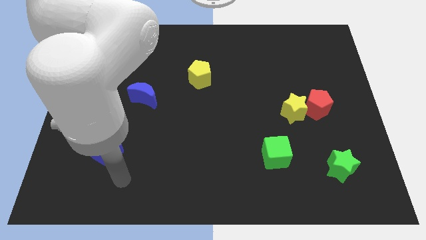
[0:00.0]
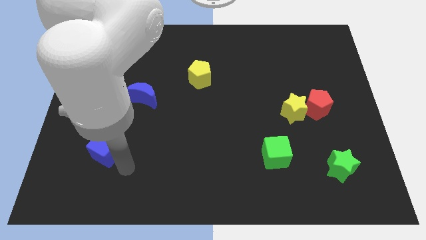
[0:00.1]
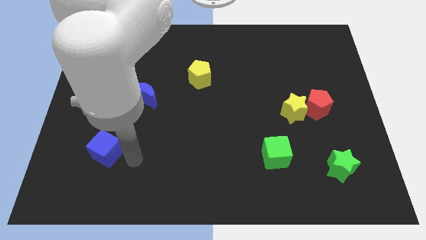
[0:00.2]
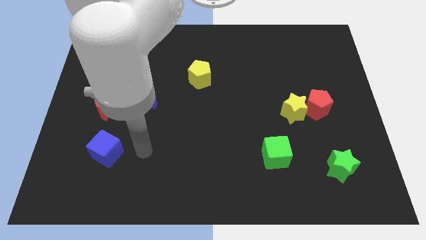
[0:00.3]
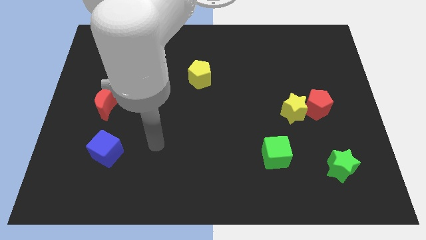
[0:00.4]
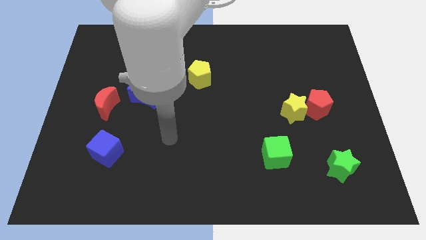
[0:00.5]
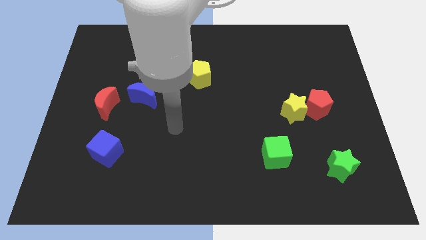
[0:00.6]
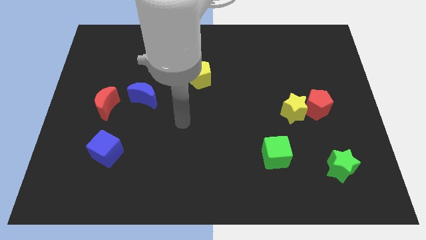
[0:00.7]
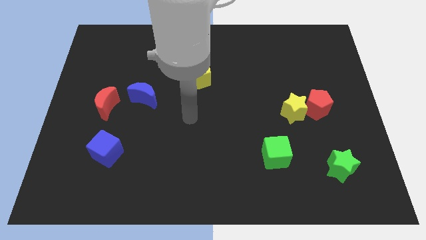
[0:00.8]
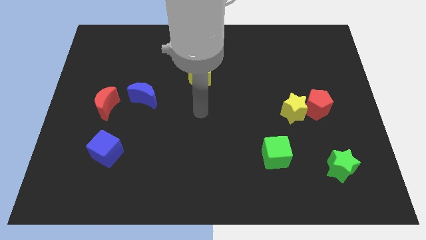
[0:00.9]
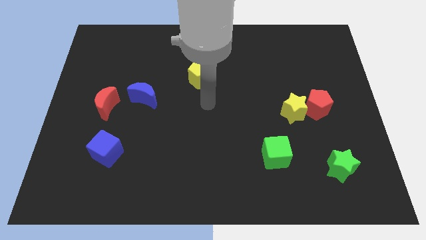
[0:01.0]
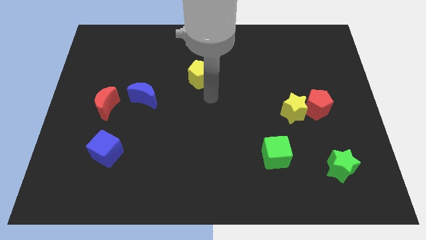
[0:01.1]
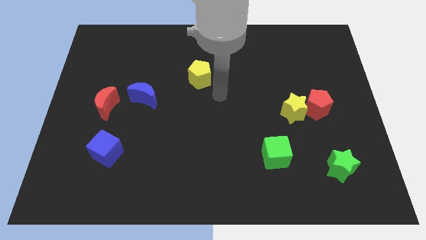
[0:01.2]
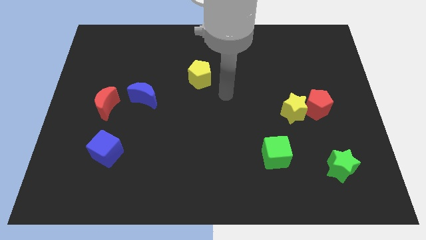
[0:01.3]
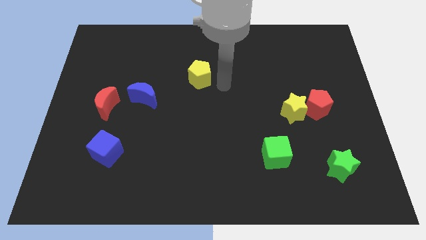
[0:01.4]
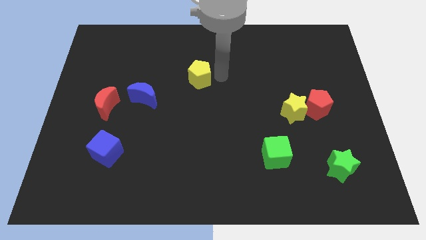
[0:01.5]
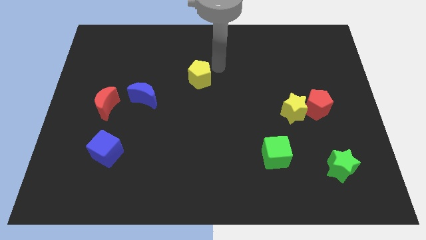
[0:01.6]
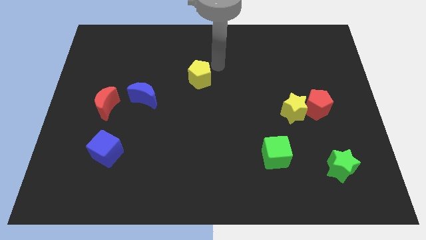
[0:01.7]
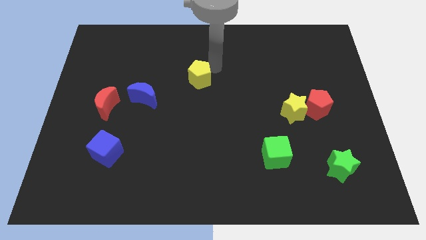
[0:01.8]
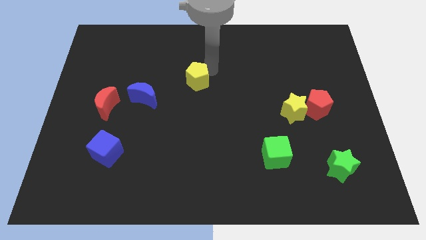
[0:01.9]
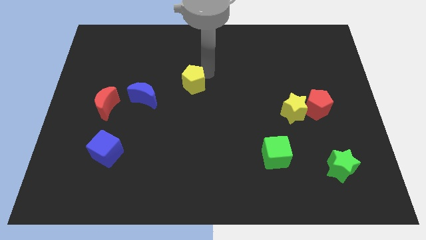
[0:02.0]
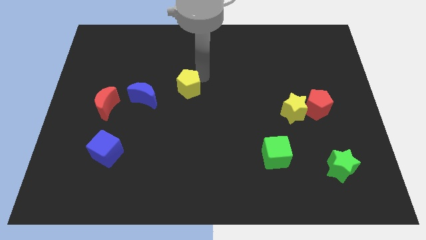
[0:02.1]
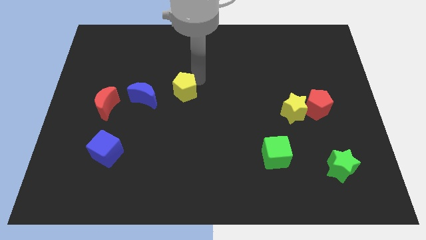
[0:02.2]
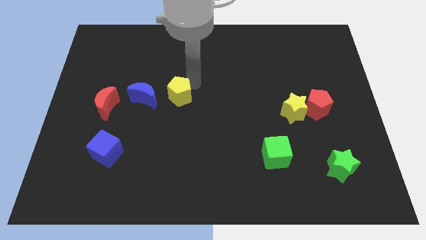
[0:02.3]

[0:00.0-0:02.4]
move the yellow pentagon a little down and to the left

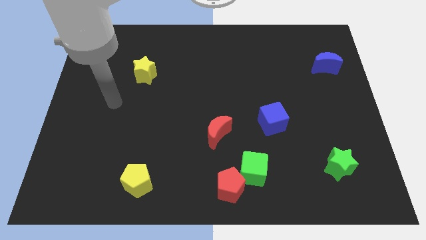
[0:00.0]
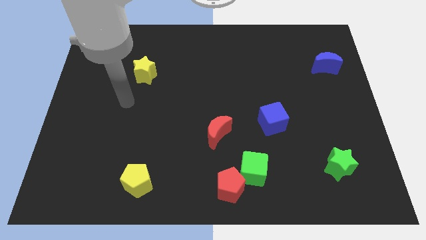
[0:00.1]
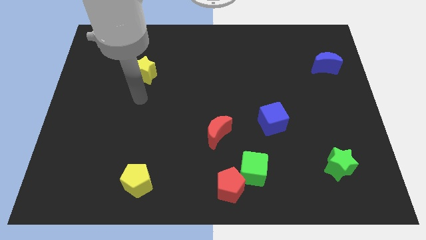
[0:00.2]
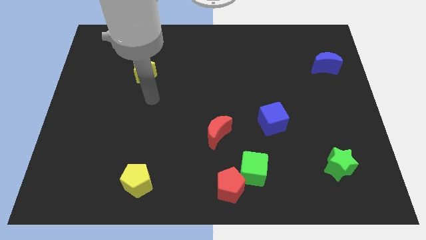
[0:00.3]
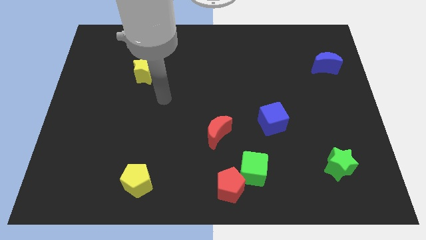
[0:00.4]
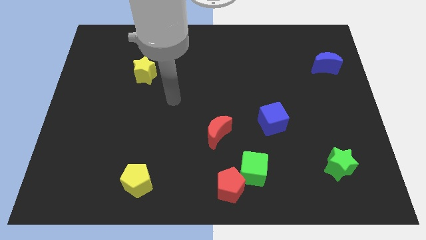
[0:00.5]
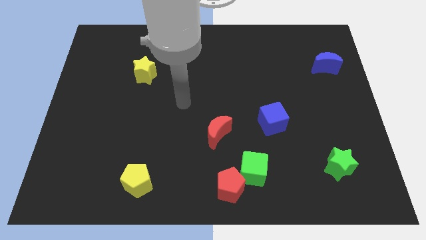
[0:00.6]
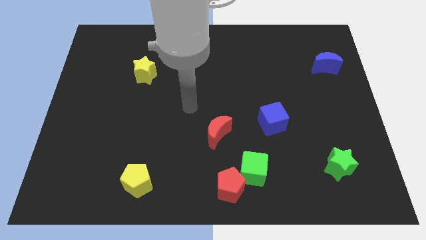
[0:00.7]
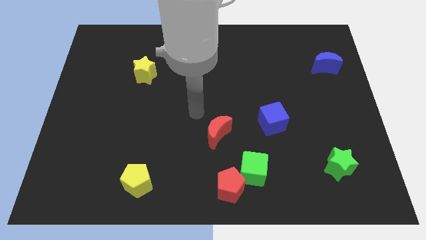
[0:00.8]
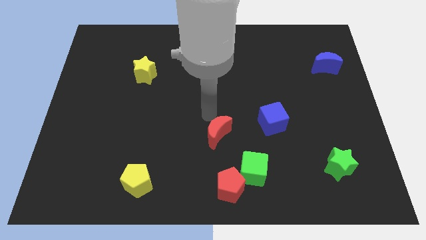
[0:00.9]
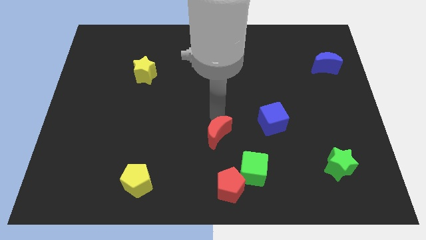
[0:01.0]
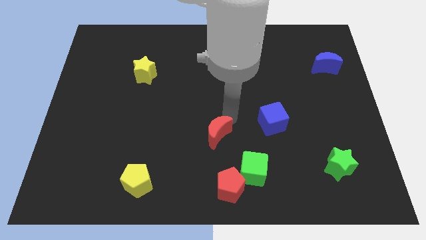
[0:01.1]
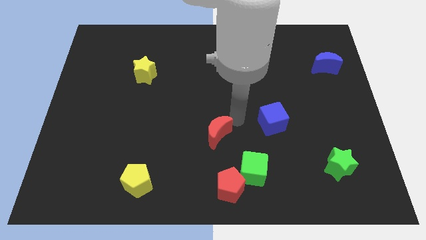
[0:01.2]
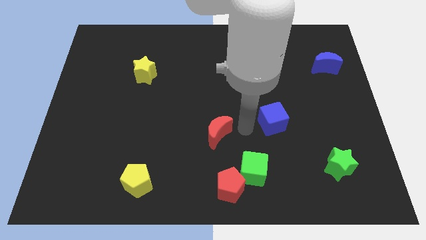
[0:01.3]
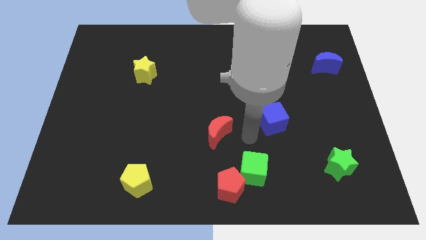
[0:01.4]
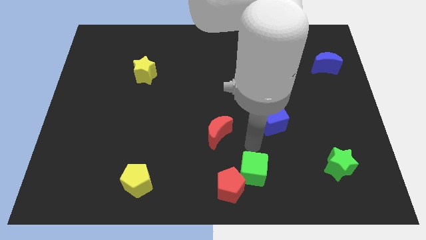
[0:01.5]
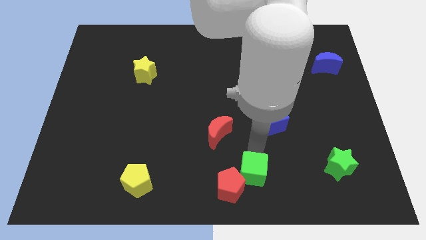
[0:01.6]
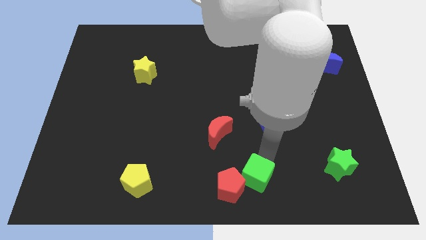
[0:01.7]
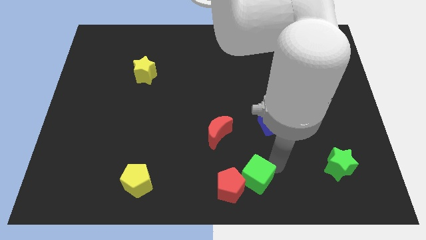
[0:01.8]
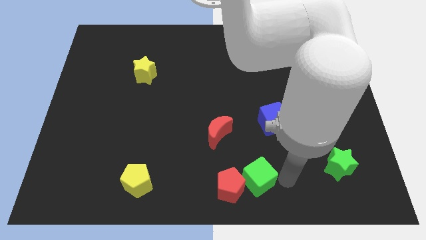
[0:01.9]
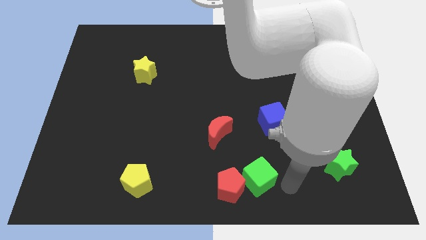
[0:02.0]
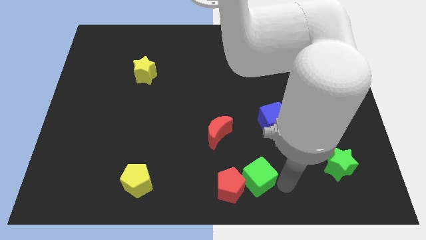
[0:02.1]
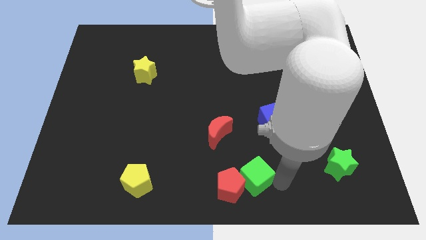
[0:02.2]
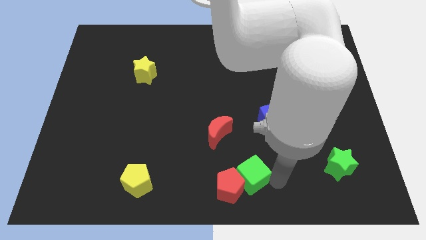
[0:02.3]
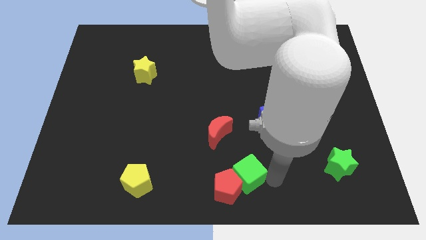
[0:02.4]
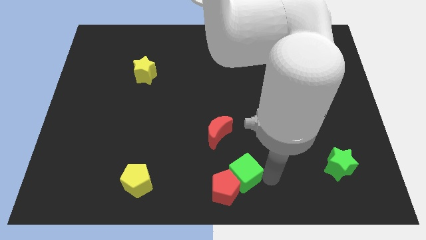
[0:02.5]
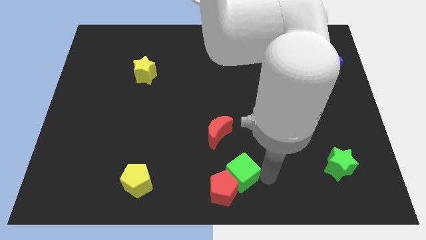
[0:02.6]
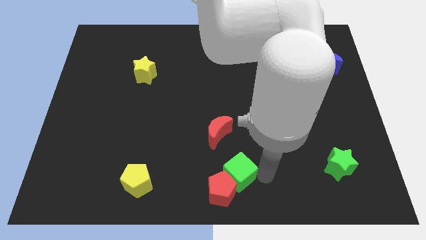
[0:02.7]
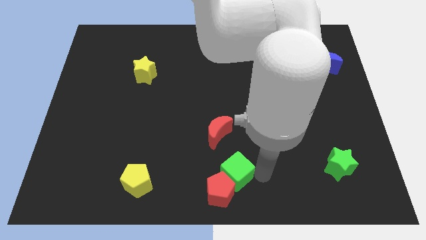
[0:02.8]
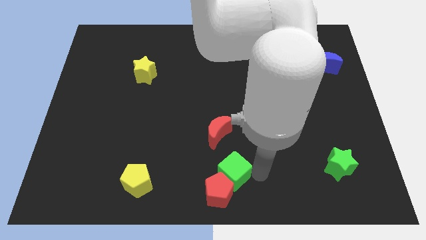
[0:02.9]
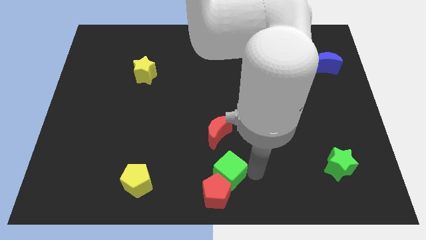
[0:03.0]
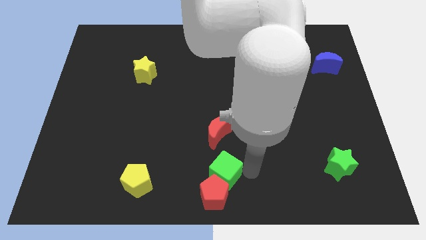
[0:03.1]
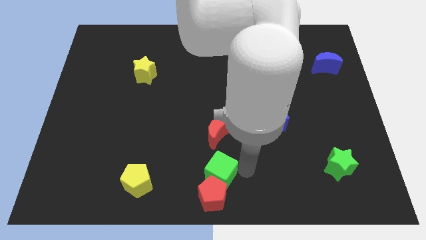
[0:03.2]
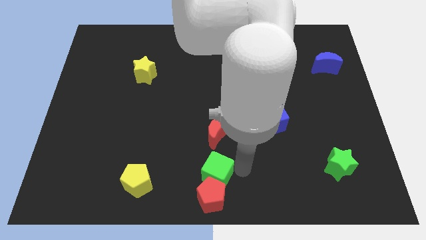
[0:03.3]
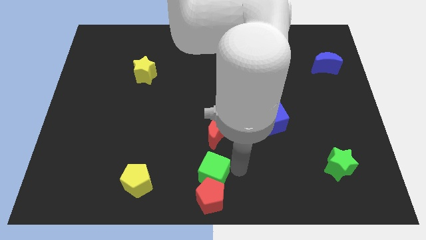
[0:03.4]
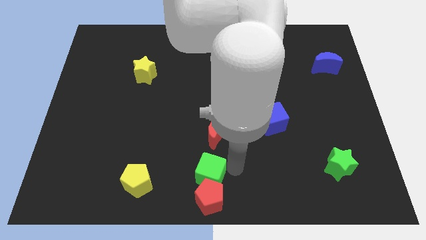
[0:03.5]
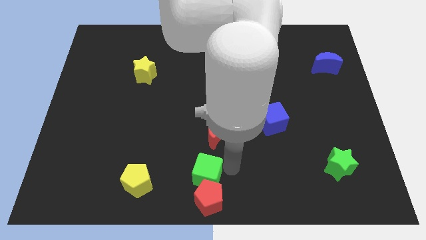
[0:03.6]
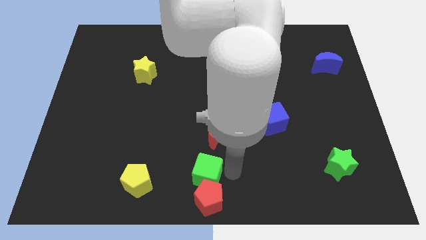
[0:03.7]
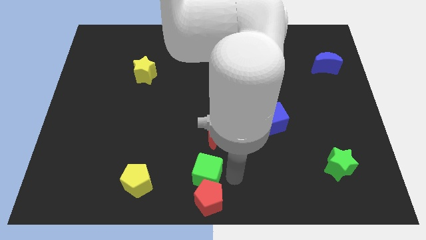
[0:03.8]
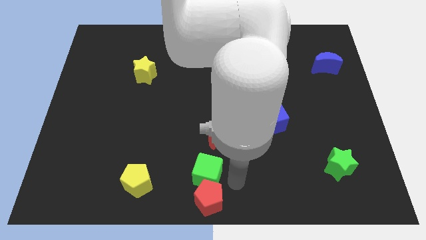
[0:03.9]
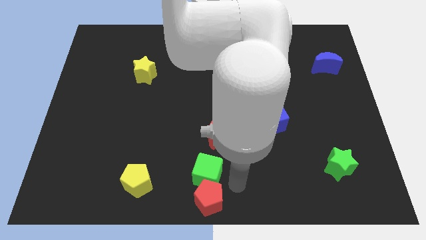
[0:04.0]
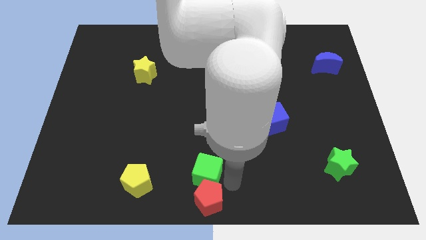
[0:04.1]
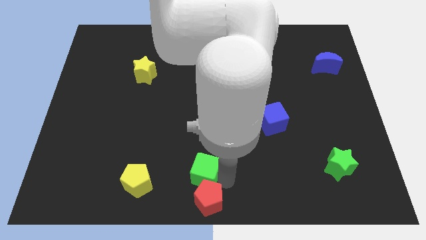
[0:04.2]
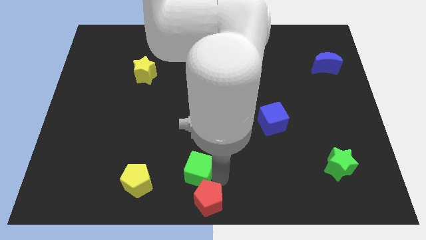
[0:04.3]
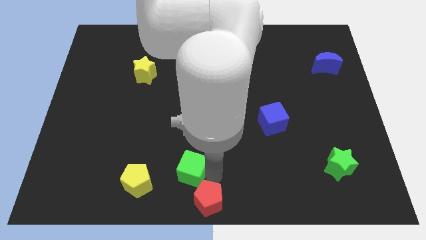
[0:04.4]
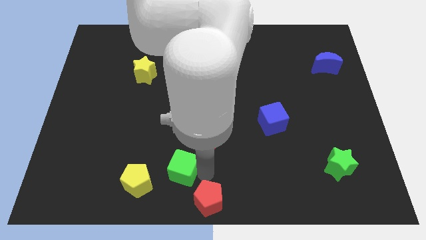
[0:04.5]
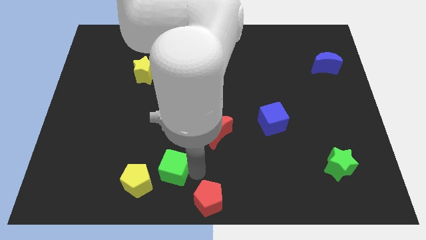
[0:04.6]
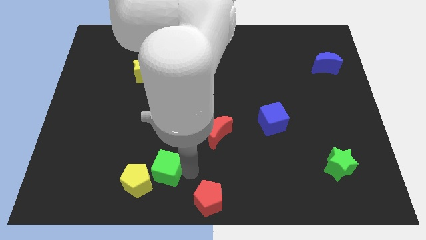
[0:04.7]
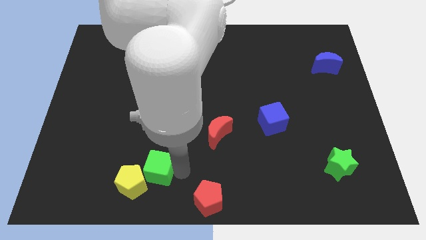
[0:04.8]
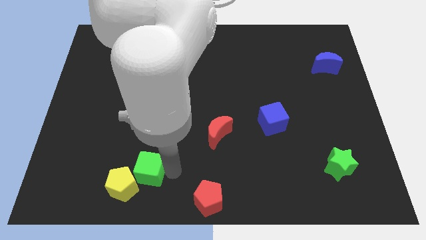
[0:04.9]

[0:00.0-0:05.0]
move the green cube to the left

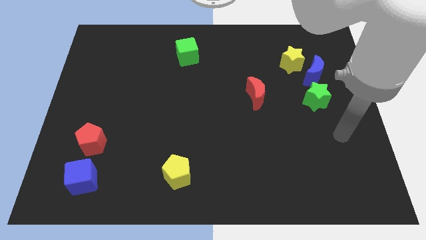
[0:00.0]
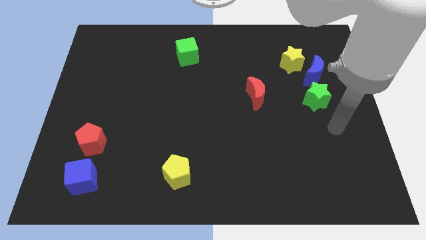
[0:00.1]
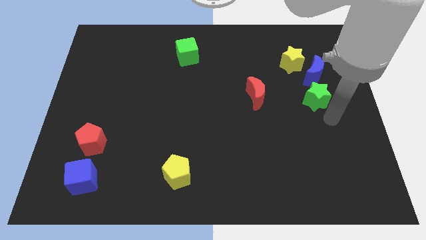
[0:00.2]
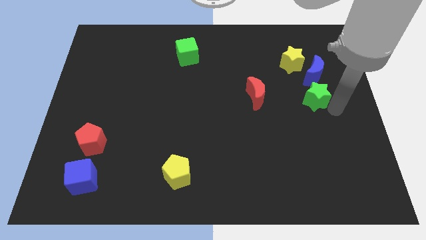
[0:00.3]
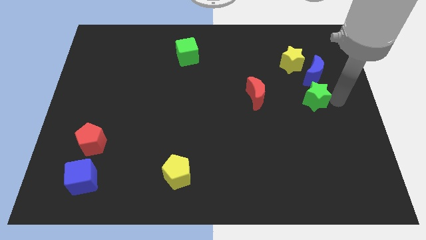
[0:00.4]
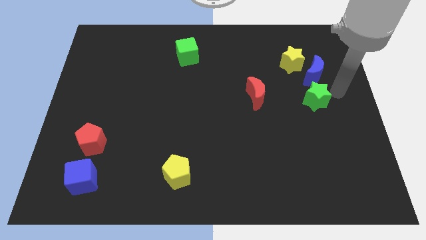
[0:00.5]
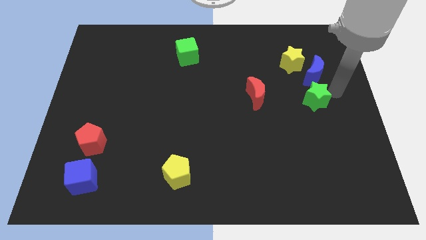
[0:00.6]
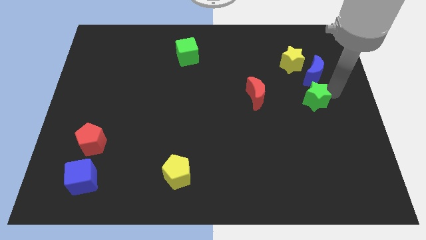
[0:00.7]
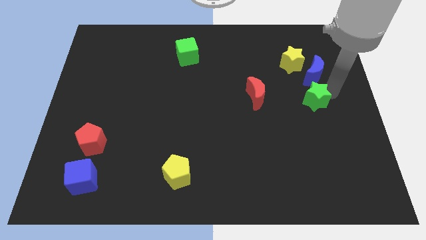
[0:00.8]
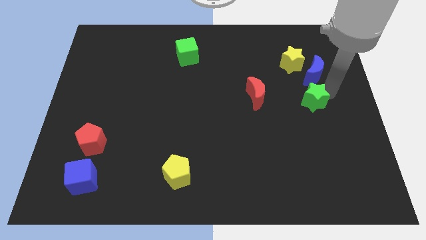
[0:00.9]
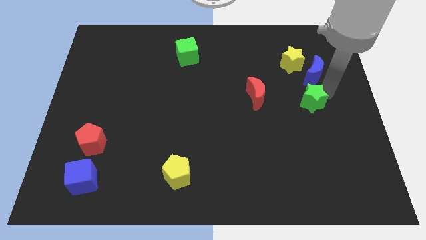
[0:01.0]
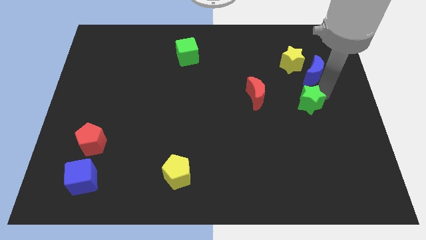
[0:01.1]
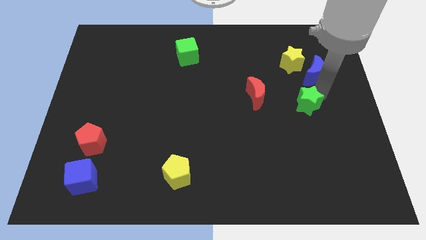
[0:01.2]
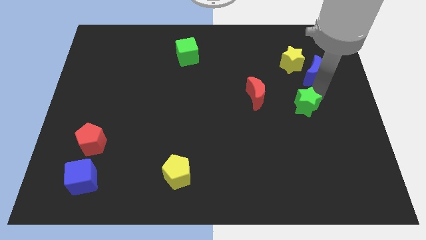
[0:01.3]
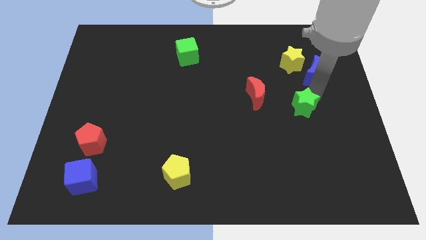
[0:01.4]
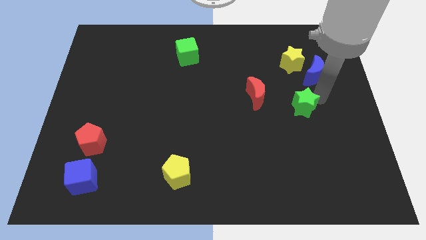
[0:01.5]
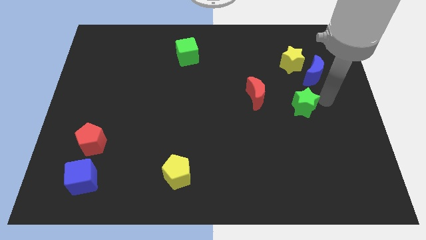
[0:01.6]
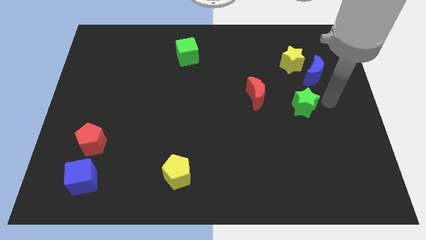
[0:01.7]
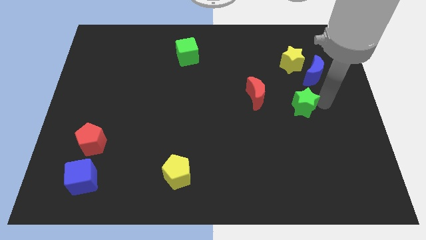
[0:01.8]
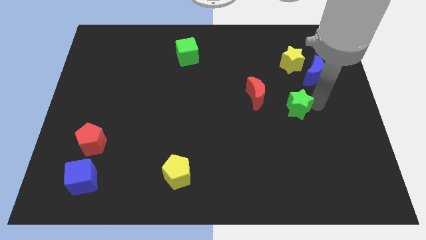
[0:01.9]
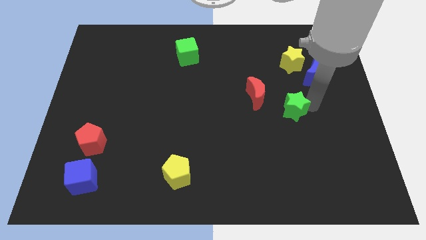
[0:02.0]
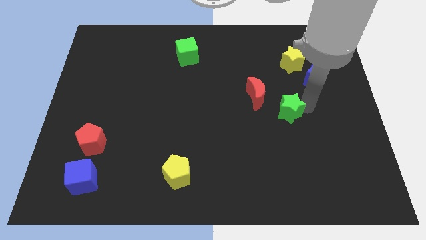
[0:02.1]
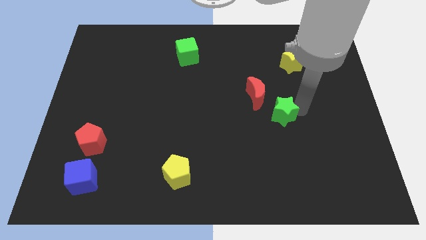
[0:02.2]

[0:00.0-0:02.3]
slide the green star to the left a little
